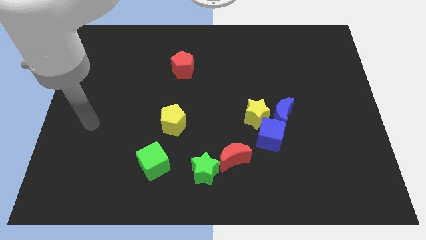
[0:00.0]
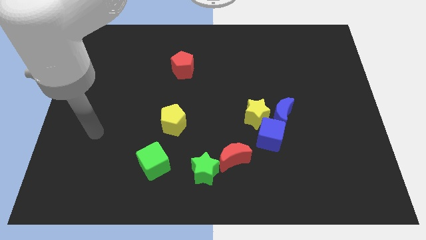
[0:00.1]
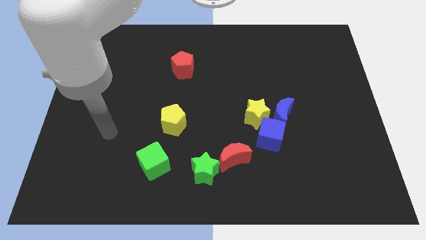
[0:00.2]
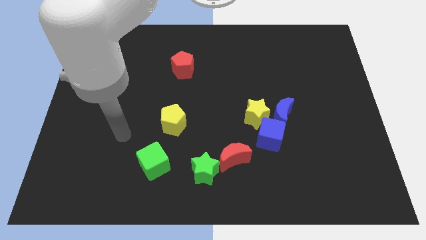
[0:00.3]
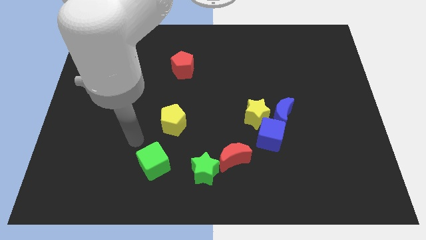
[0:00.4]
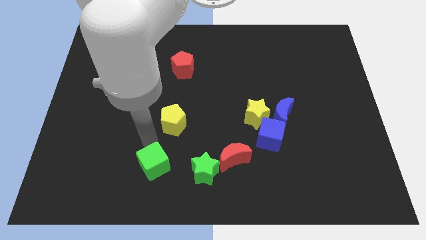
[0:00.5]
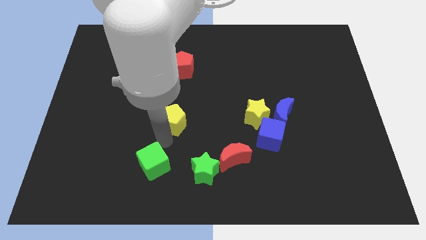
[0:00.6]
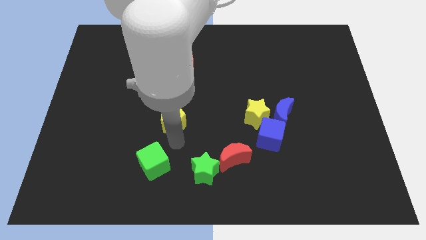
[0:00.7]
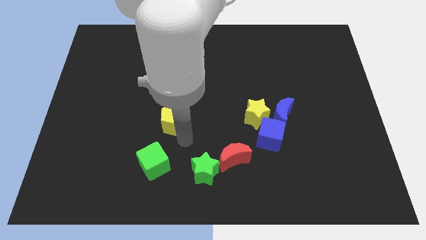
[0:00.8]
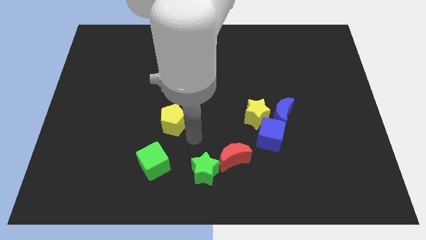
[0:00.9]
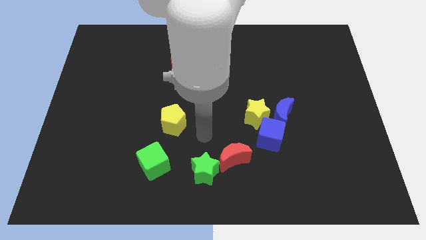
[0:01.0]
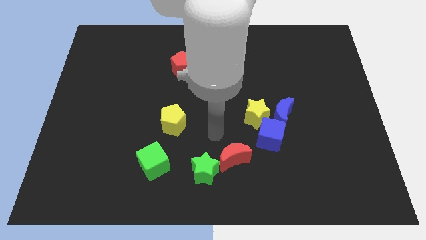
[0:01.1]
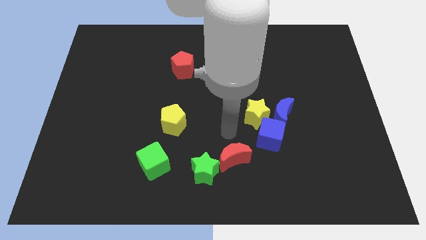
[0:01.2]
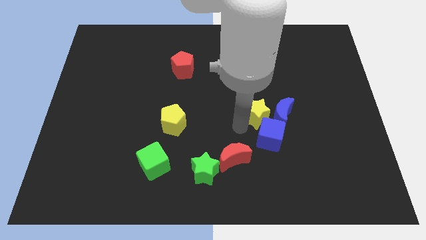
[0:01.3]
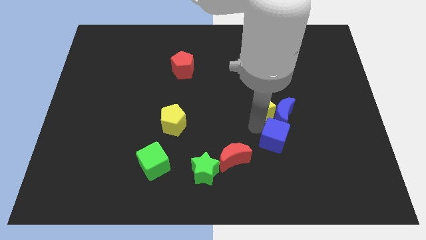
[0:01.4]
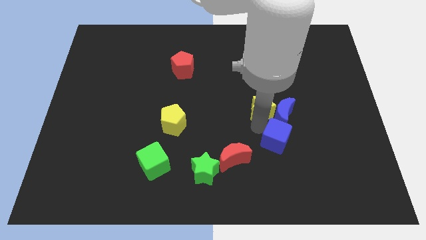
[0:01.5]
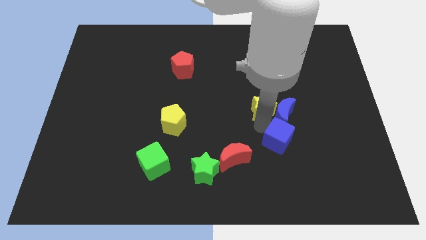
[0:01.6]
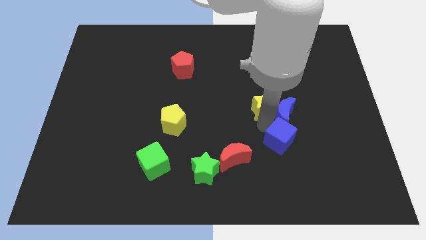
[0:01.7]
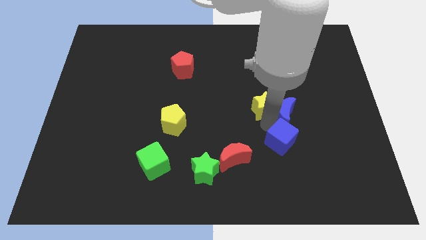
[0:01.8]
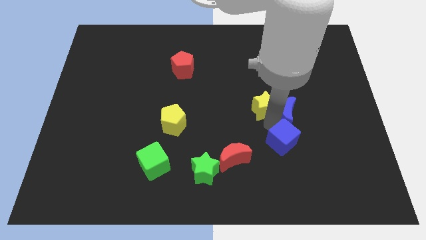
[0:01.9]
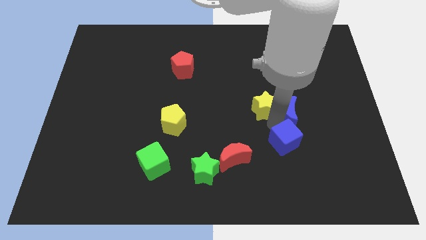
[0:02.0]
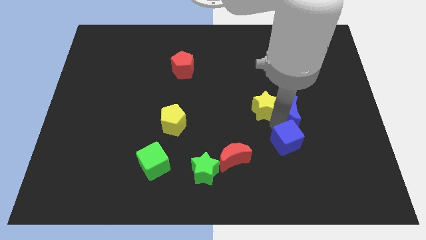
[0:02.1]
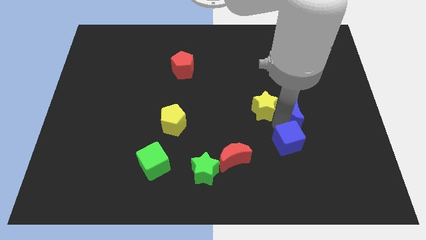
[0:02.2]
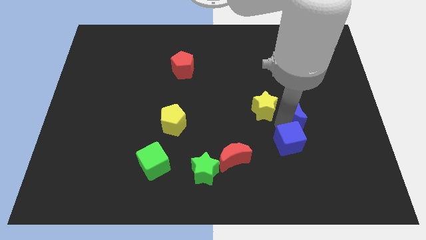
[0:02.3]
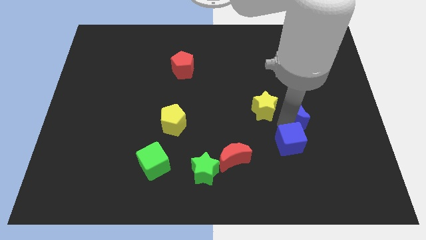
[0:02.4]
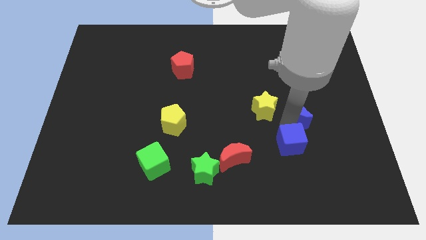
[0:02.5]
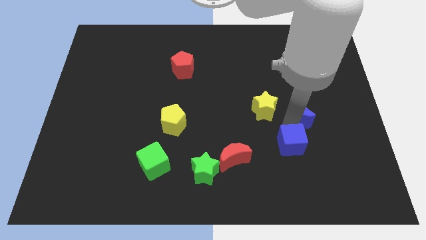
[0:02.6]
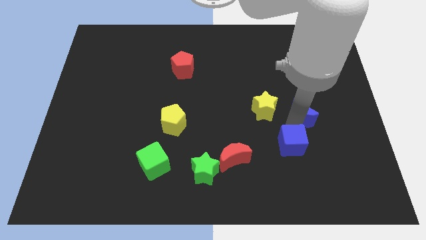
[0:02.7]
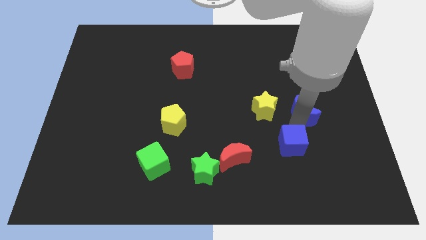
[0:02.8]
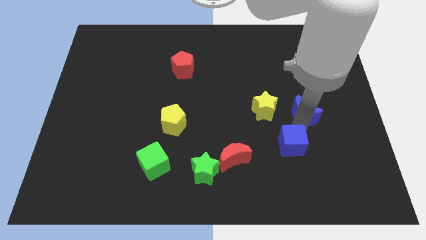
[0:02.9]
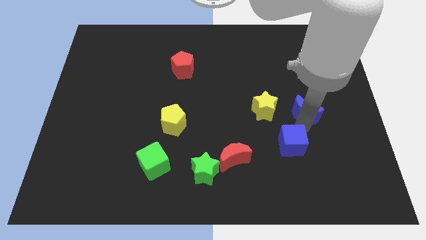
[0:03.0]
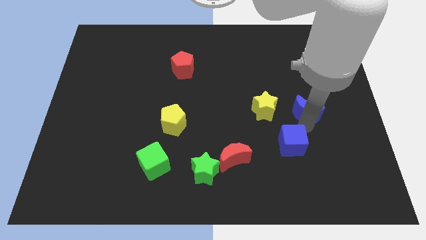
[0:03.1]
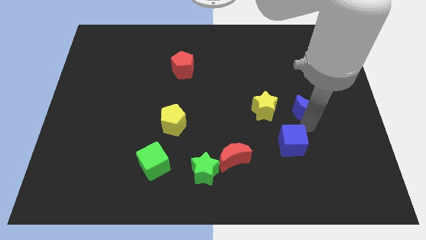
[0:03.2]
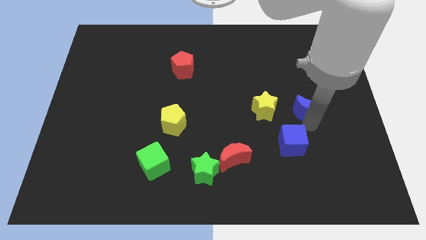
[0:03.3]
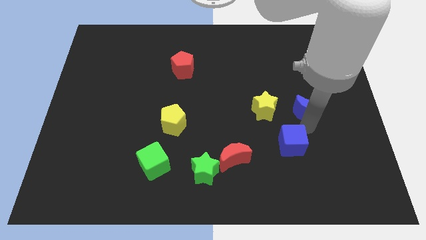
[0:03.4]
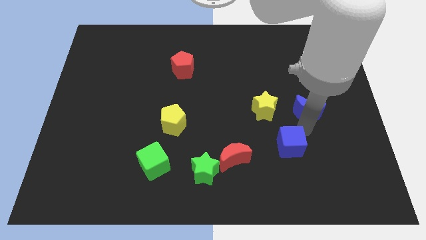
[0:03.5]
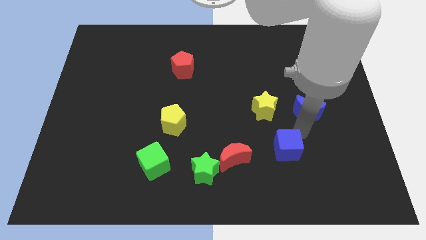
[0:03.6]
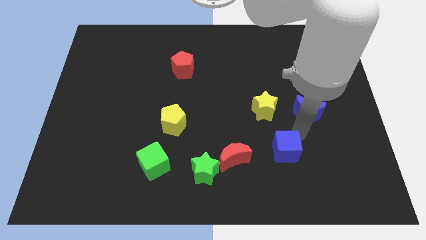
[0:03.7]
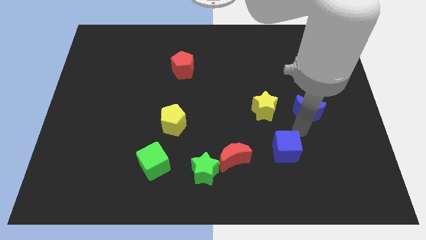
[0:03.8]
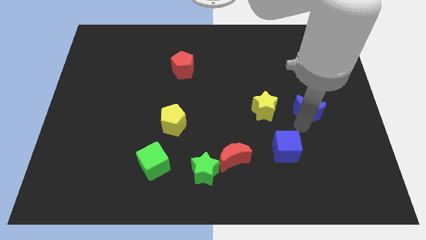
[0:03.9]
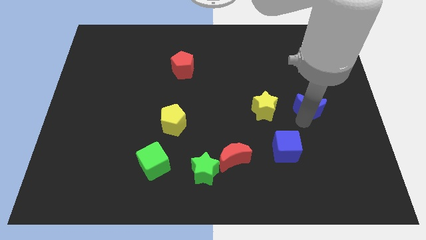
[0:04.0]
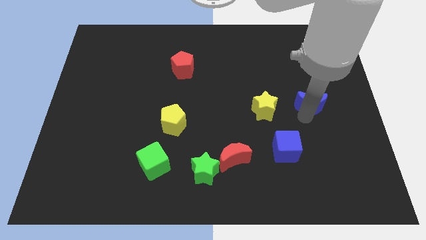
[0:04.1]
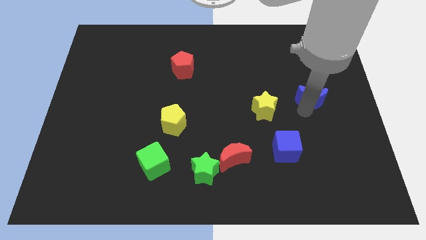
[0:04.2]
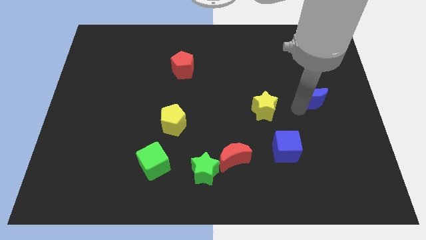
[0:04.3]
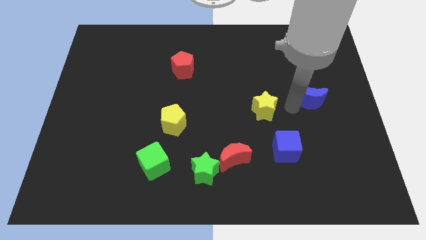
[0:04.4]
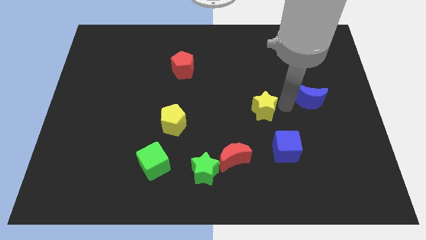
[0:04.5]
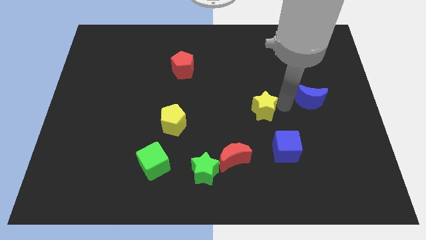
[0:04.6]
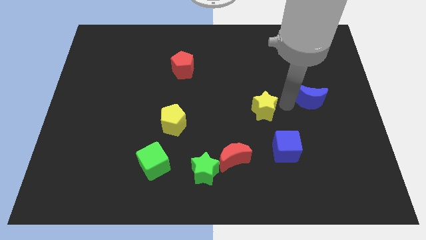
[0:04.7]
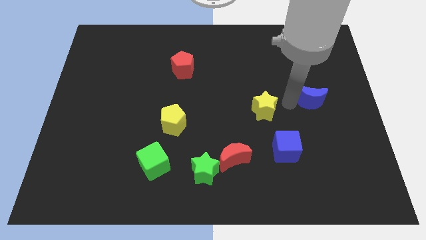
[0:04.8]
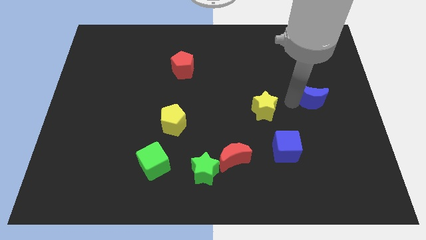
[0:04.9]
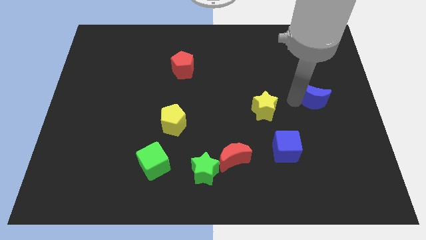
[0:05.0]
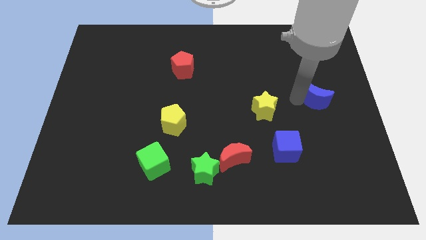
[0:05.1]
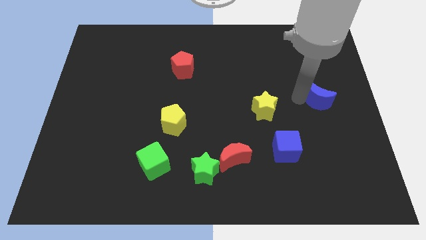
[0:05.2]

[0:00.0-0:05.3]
move the blue moon to the center right
